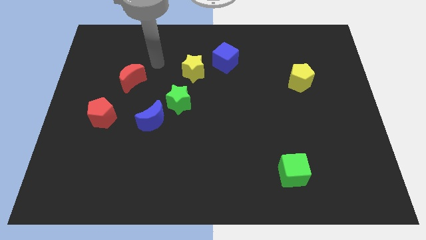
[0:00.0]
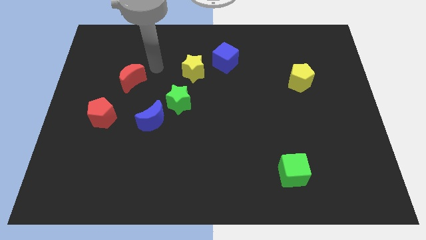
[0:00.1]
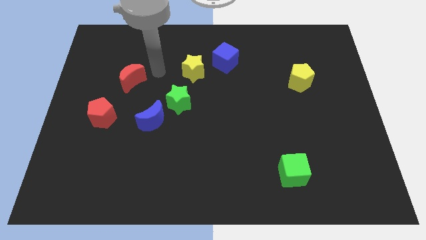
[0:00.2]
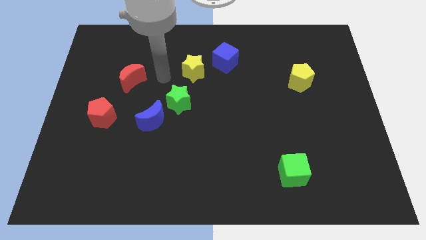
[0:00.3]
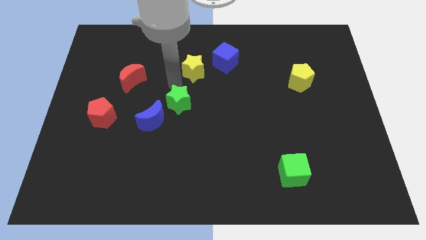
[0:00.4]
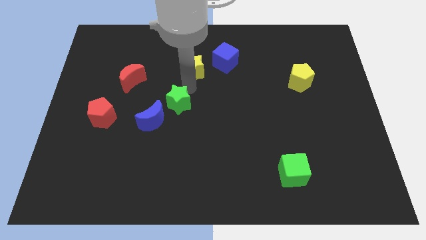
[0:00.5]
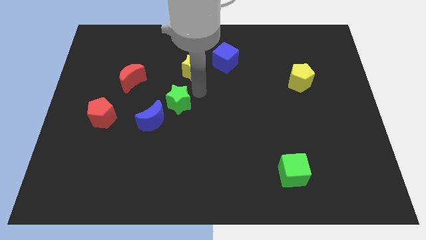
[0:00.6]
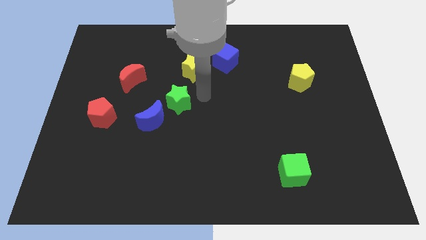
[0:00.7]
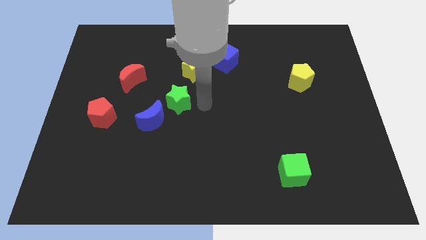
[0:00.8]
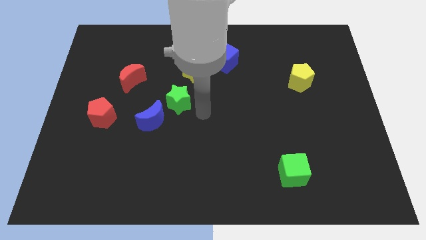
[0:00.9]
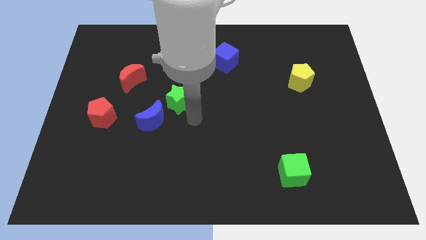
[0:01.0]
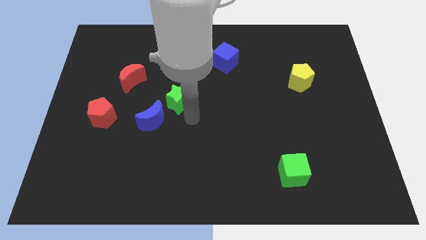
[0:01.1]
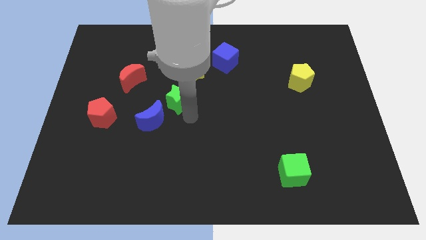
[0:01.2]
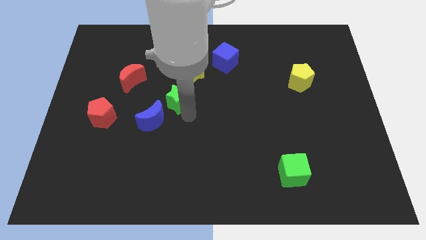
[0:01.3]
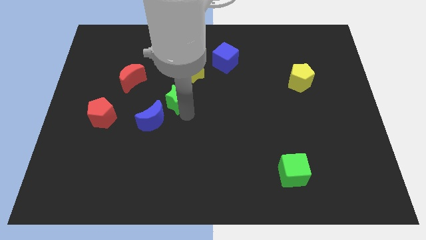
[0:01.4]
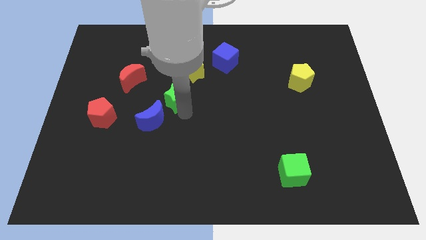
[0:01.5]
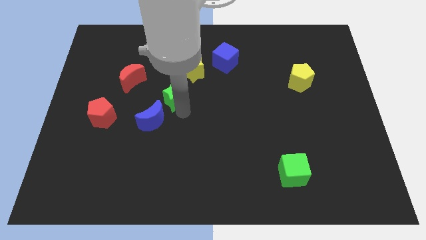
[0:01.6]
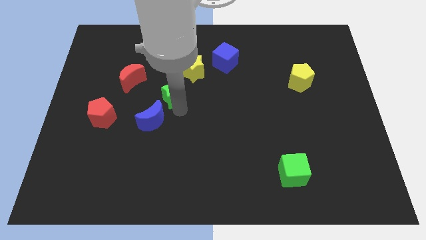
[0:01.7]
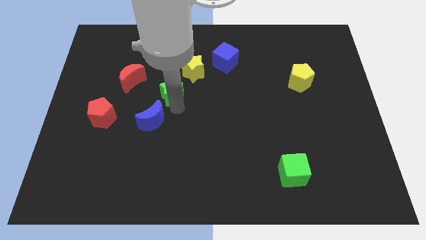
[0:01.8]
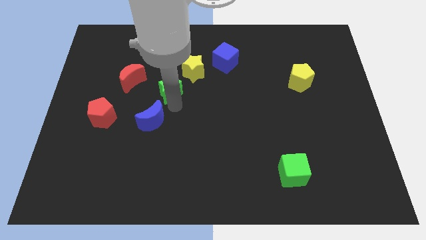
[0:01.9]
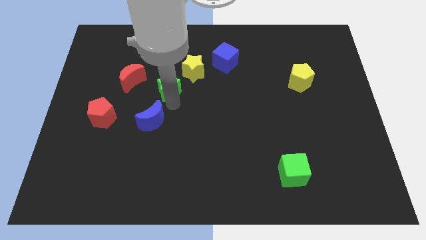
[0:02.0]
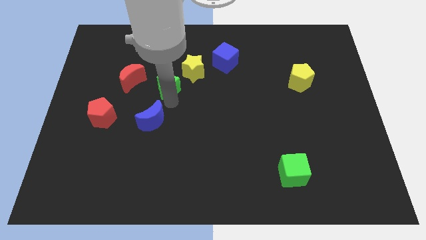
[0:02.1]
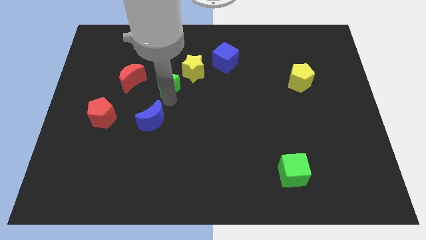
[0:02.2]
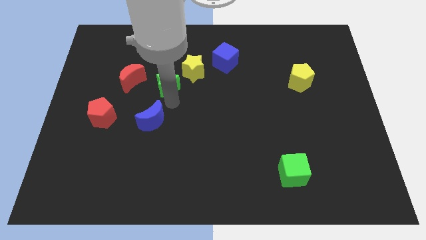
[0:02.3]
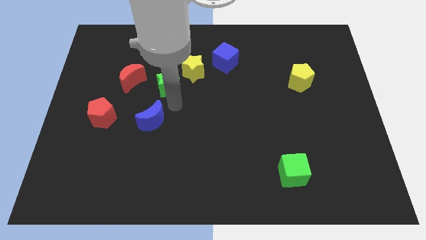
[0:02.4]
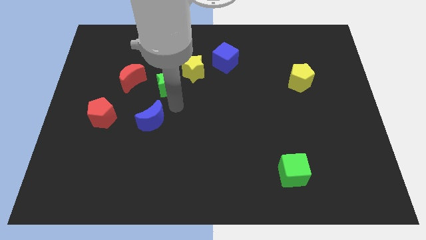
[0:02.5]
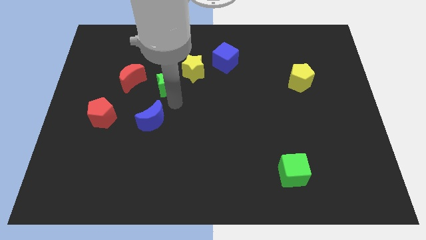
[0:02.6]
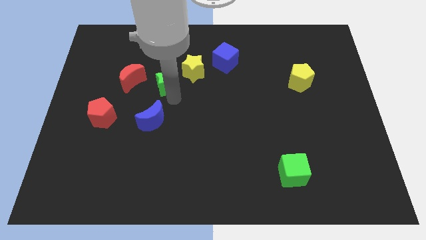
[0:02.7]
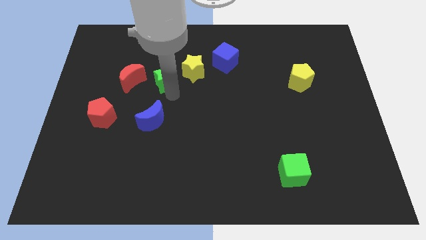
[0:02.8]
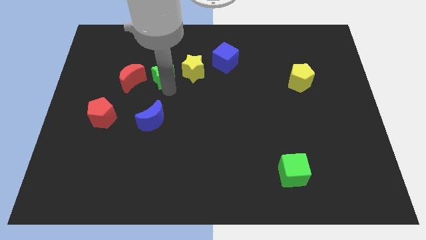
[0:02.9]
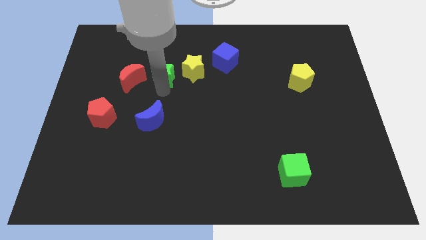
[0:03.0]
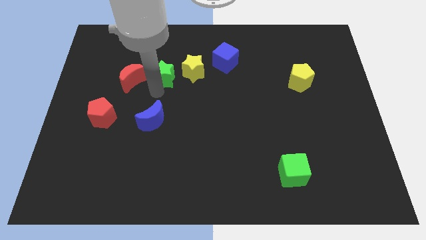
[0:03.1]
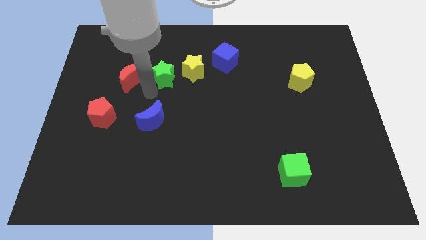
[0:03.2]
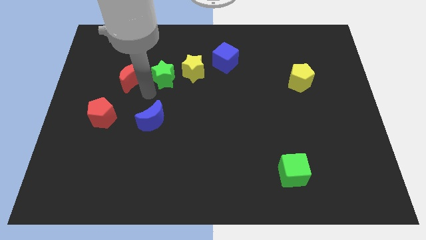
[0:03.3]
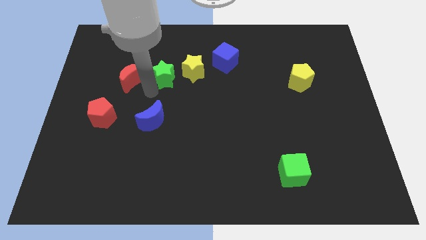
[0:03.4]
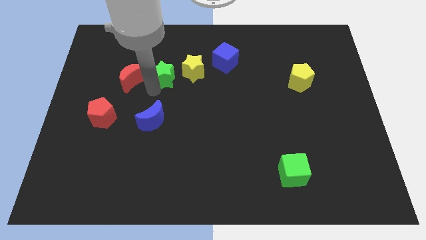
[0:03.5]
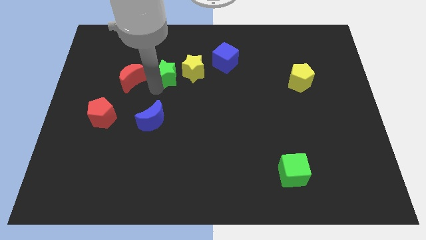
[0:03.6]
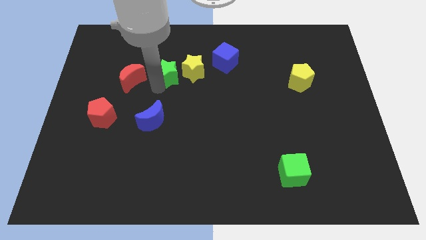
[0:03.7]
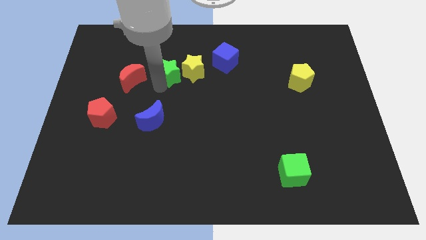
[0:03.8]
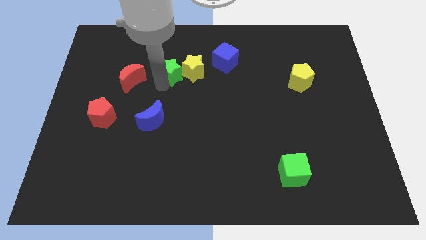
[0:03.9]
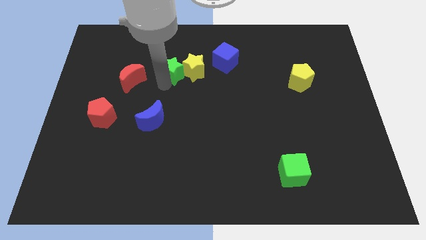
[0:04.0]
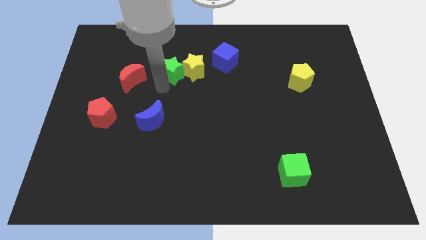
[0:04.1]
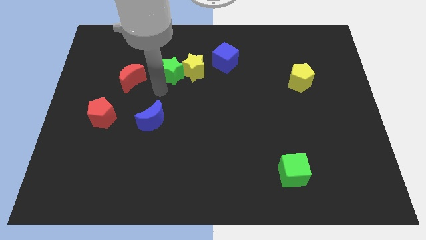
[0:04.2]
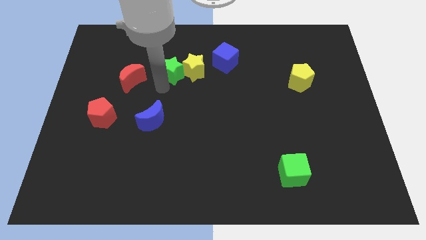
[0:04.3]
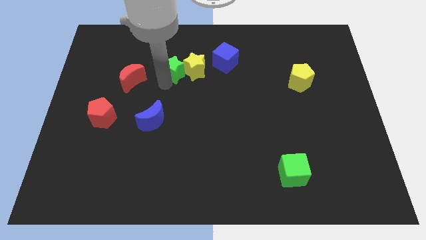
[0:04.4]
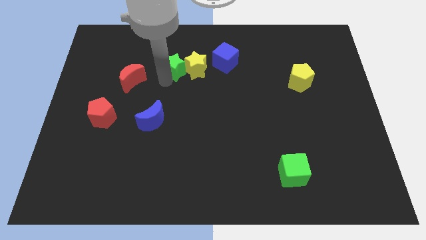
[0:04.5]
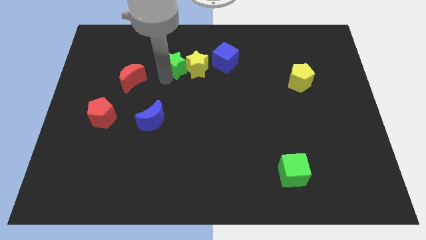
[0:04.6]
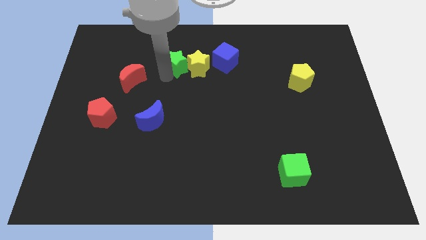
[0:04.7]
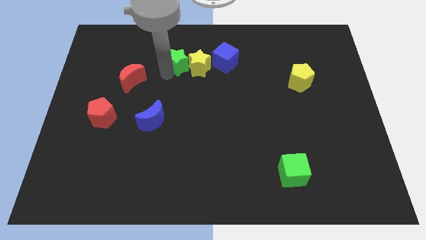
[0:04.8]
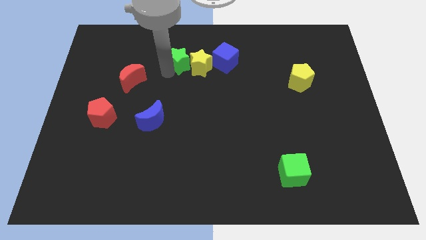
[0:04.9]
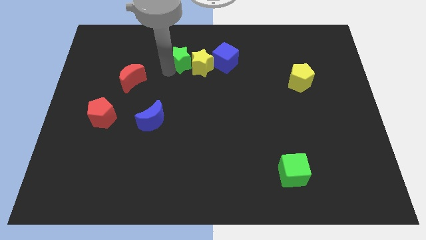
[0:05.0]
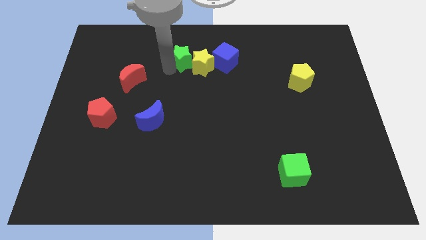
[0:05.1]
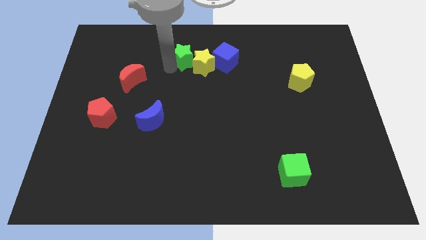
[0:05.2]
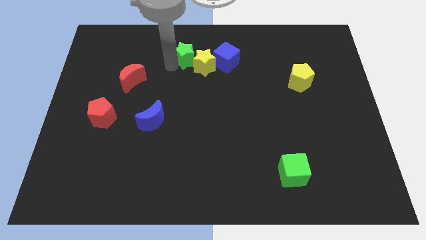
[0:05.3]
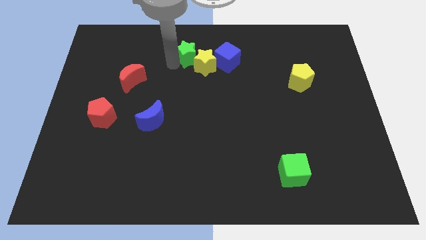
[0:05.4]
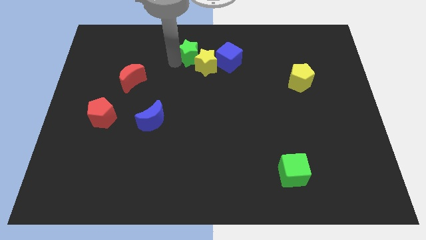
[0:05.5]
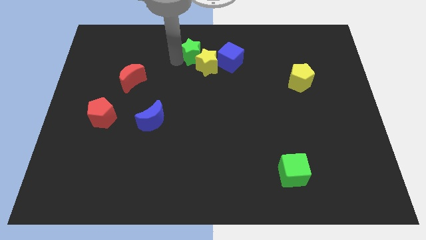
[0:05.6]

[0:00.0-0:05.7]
put the green star to the towards your base

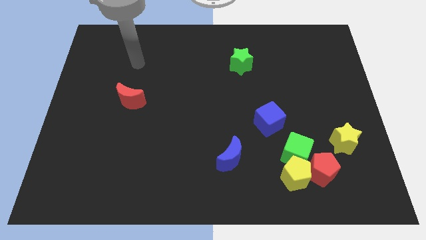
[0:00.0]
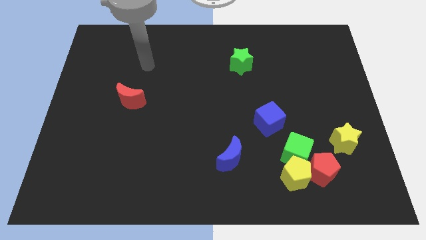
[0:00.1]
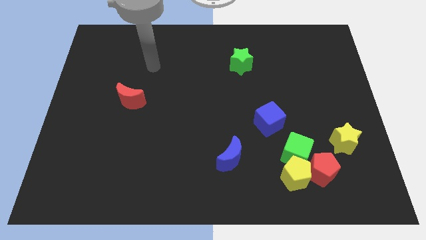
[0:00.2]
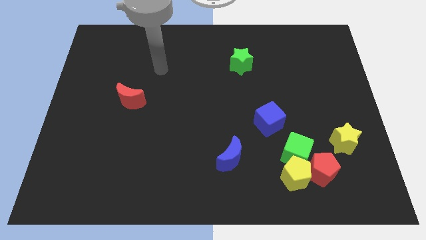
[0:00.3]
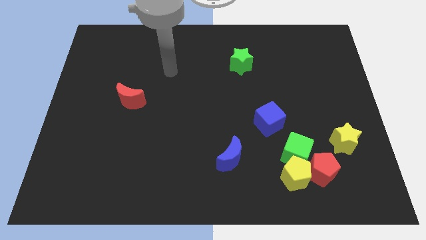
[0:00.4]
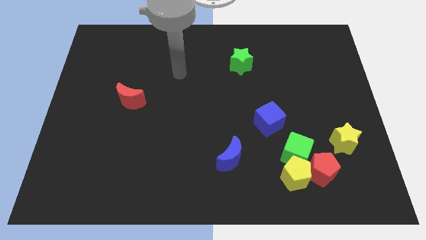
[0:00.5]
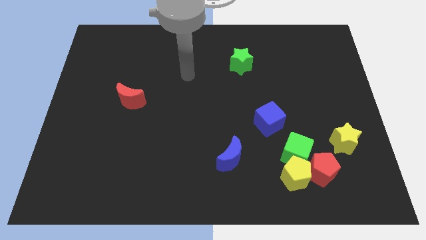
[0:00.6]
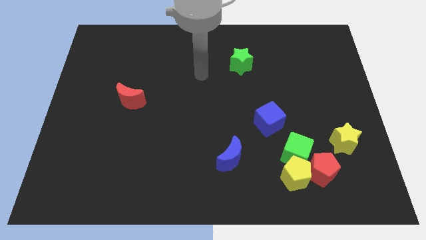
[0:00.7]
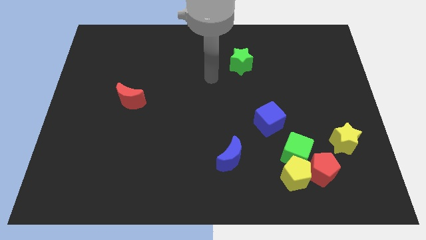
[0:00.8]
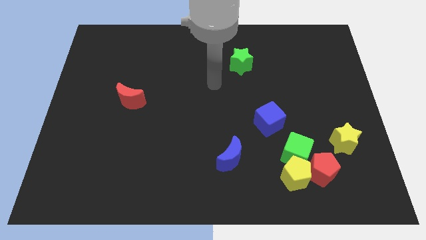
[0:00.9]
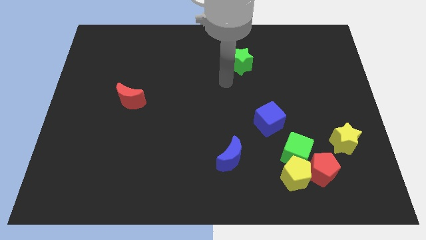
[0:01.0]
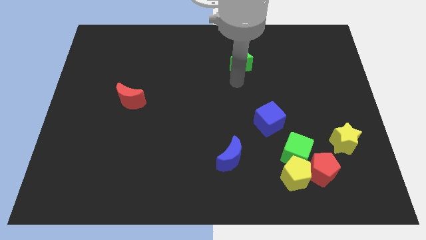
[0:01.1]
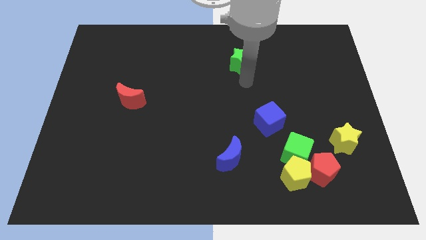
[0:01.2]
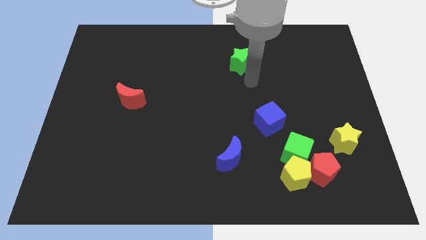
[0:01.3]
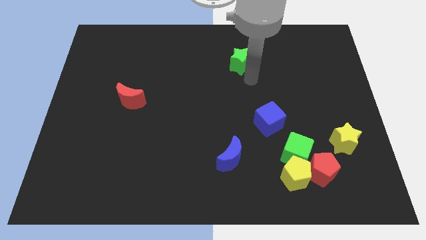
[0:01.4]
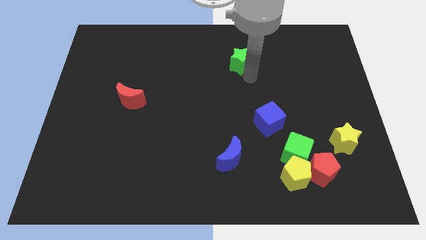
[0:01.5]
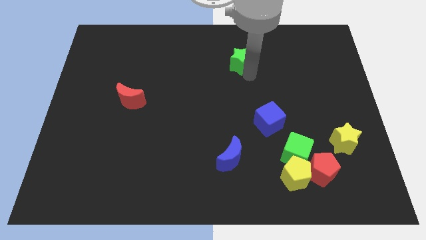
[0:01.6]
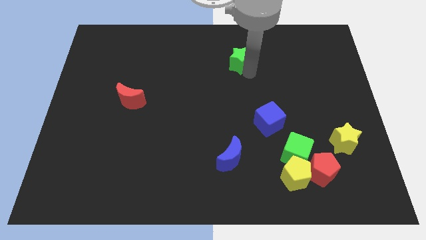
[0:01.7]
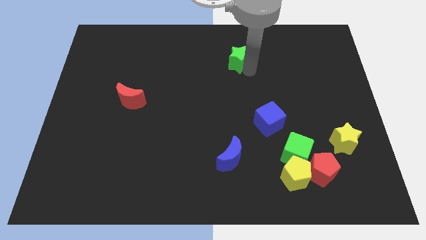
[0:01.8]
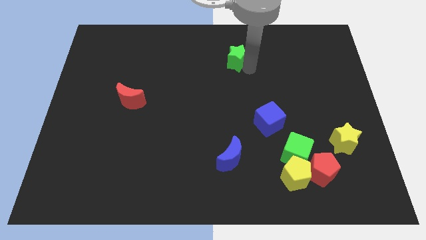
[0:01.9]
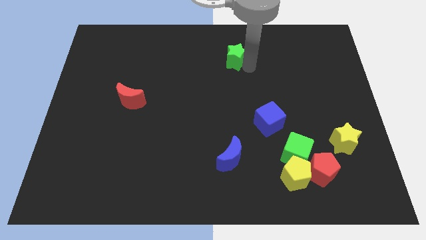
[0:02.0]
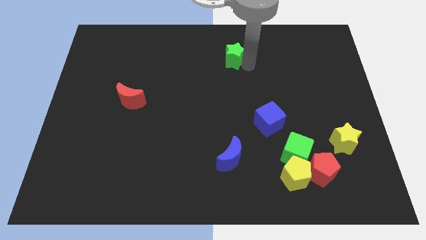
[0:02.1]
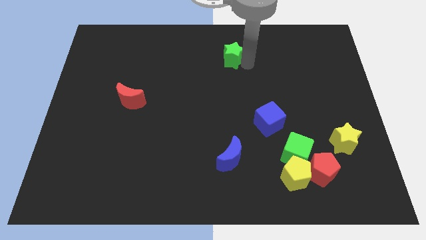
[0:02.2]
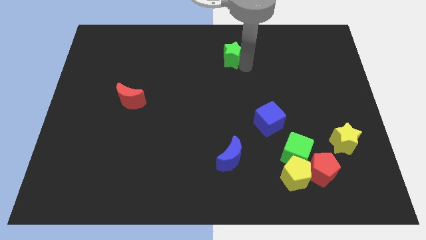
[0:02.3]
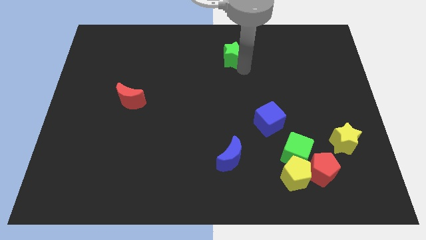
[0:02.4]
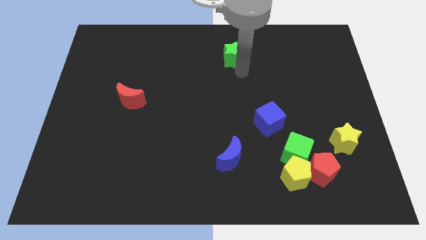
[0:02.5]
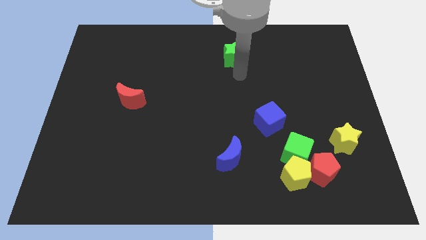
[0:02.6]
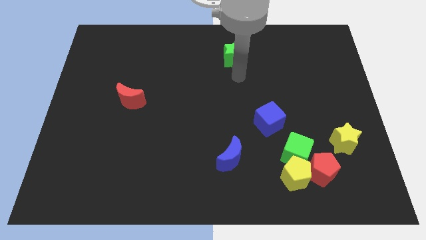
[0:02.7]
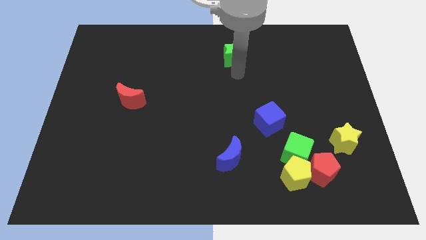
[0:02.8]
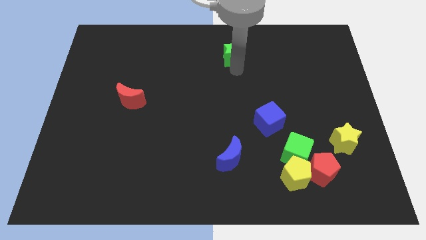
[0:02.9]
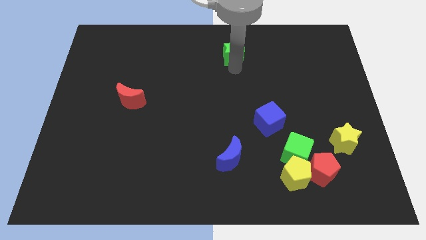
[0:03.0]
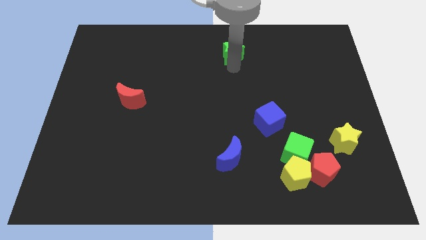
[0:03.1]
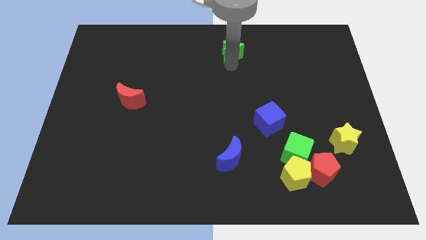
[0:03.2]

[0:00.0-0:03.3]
slide the green star to the towards your base
